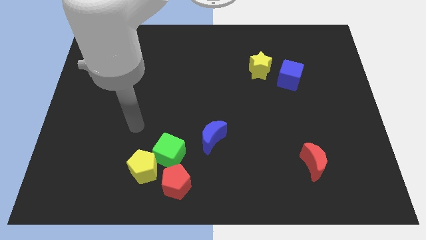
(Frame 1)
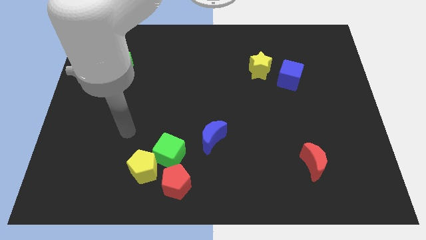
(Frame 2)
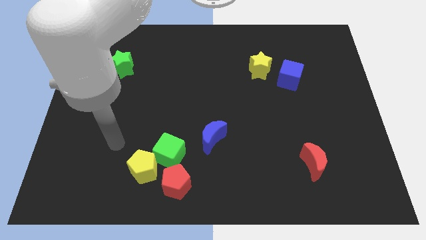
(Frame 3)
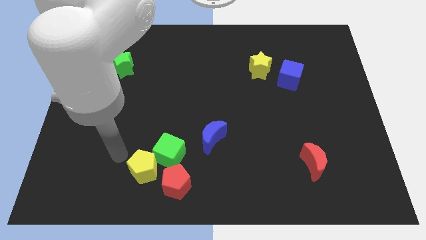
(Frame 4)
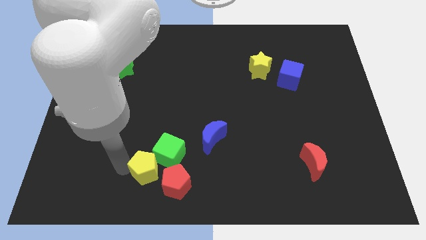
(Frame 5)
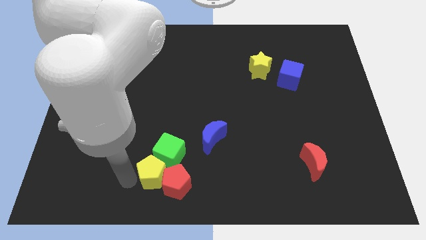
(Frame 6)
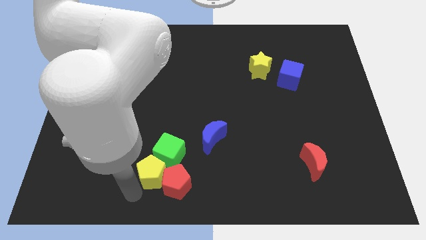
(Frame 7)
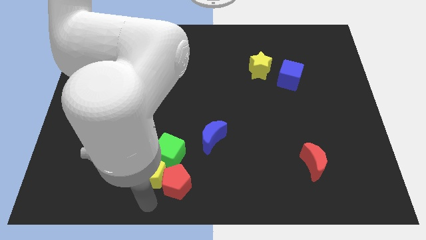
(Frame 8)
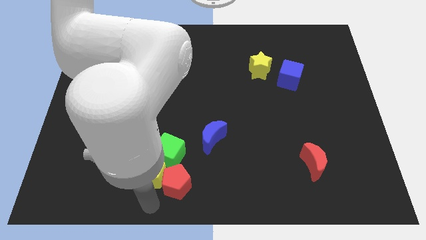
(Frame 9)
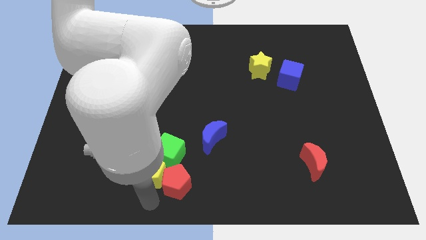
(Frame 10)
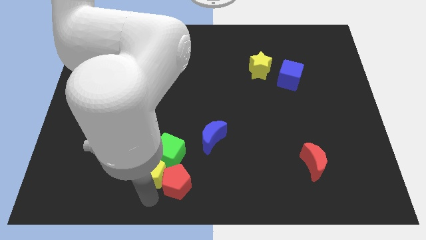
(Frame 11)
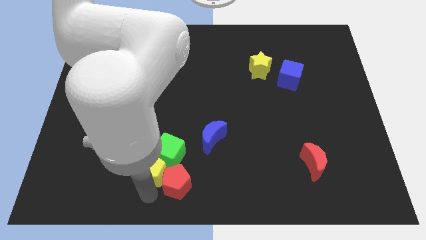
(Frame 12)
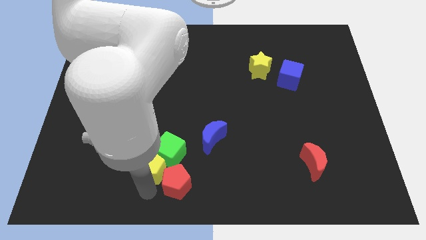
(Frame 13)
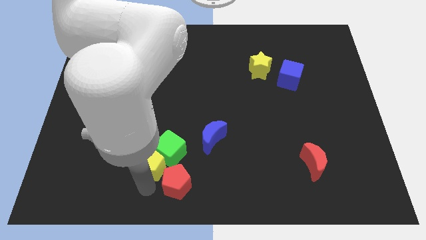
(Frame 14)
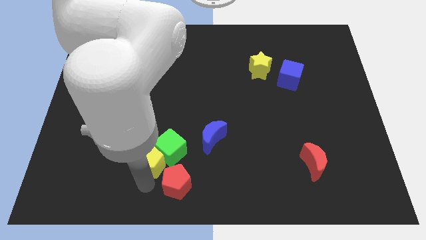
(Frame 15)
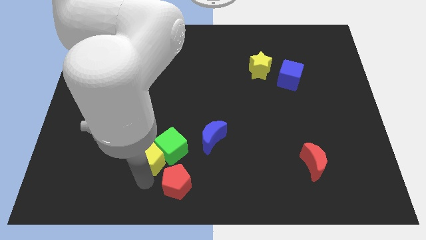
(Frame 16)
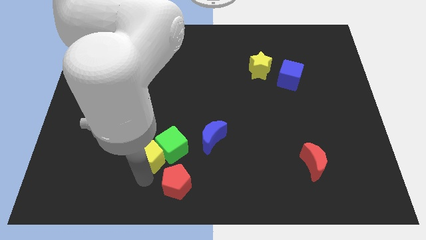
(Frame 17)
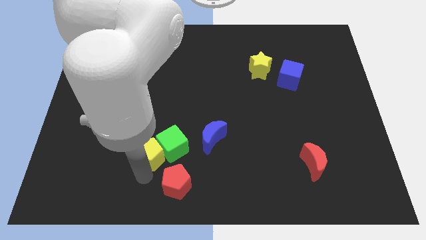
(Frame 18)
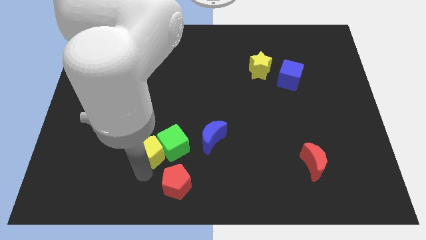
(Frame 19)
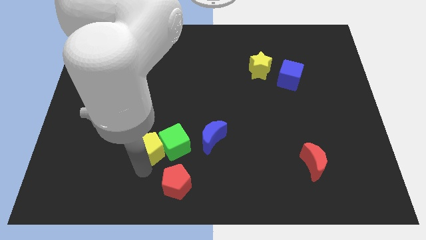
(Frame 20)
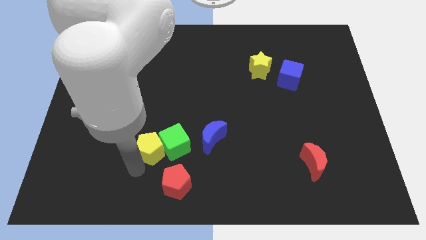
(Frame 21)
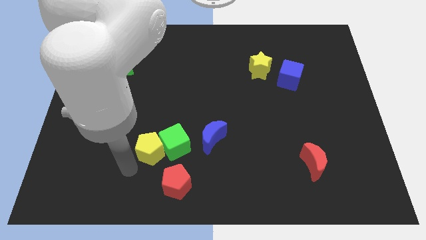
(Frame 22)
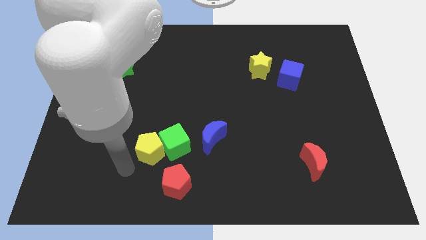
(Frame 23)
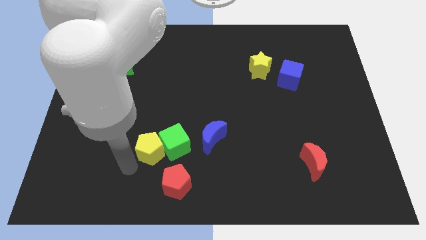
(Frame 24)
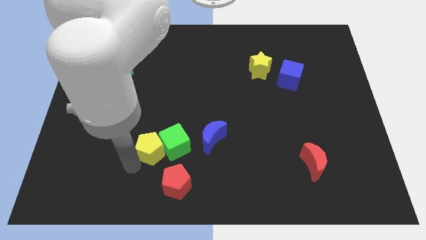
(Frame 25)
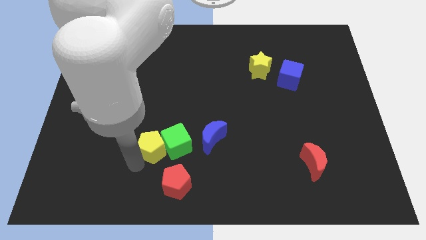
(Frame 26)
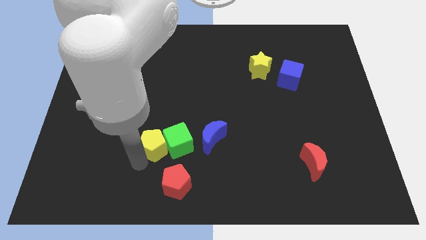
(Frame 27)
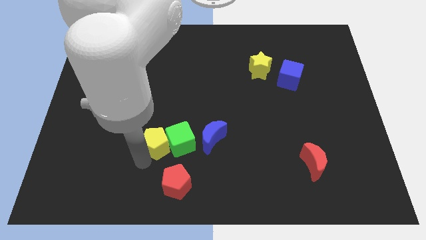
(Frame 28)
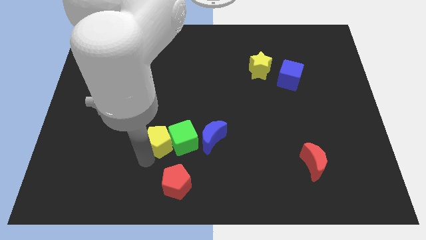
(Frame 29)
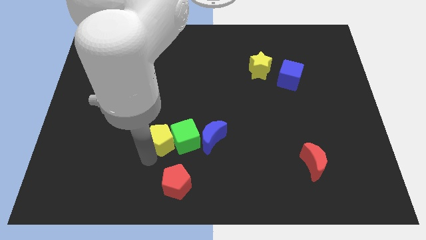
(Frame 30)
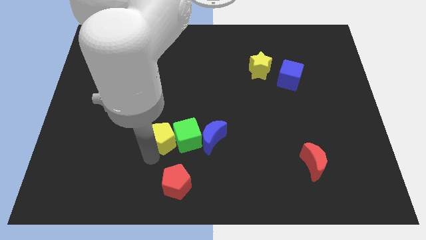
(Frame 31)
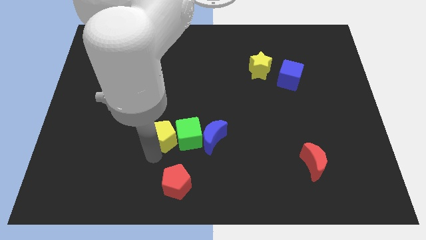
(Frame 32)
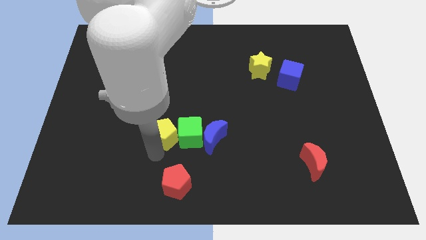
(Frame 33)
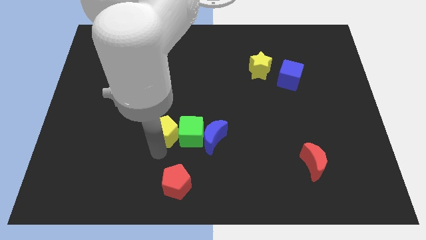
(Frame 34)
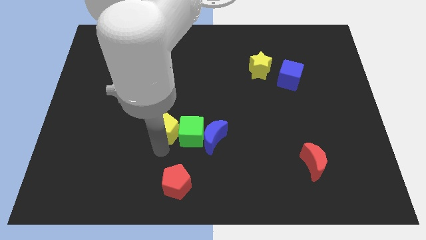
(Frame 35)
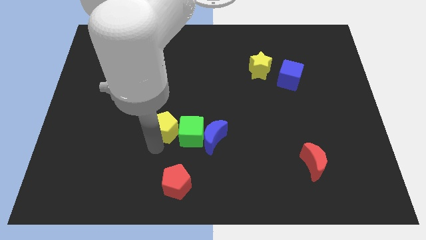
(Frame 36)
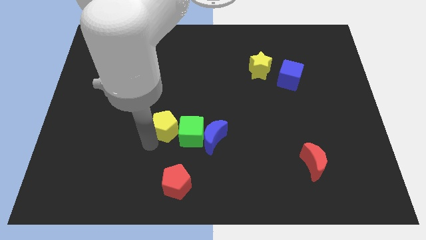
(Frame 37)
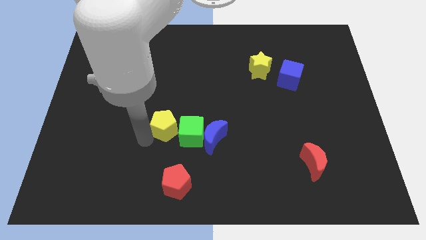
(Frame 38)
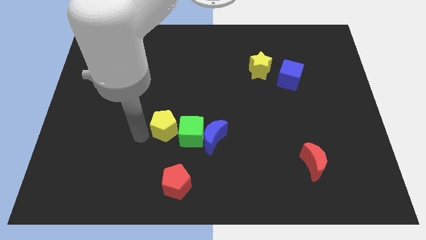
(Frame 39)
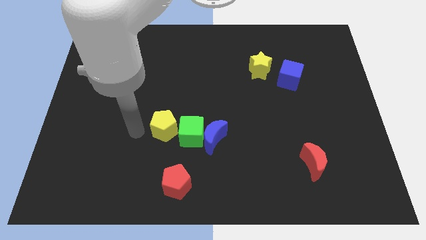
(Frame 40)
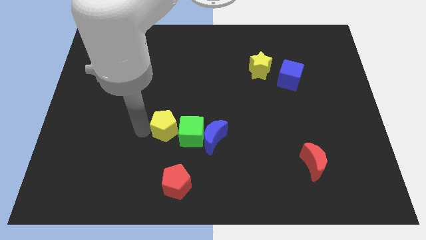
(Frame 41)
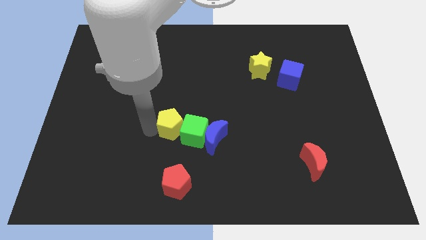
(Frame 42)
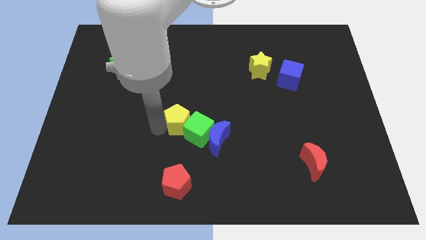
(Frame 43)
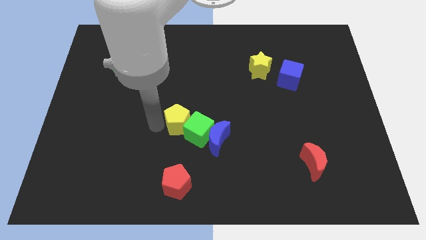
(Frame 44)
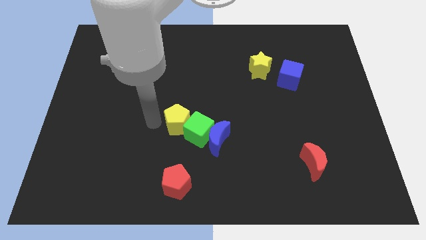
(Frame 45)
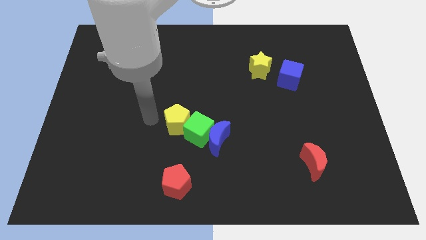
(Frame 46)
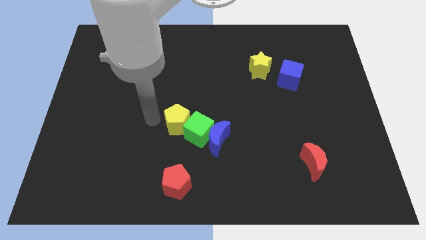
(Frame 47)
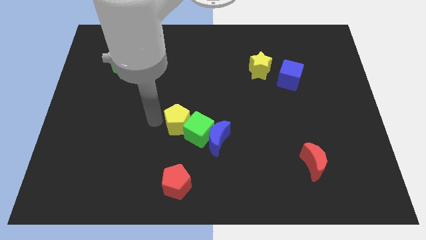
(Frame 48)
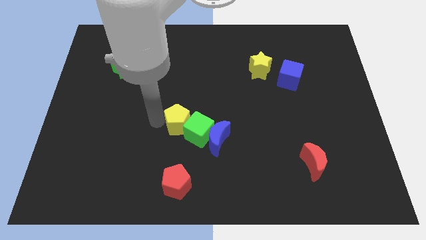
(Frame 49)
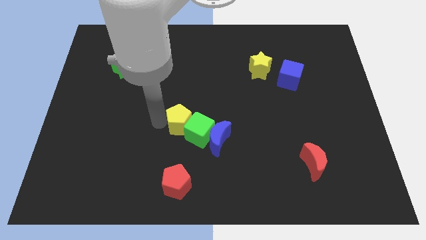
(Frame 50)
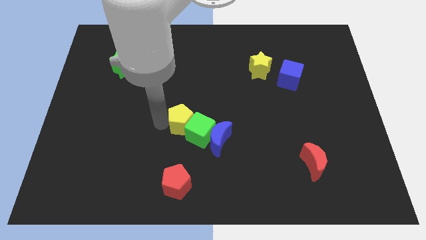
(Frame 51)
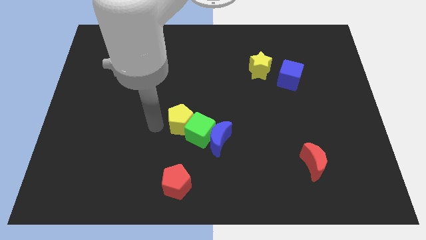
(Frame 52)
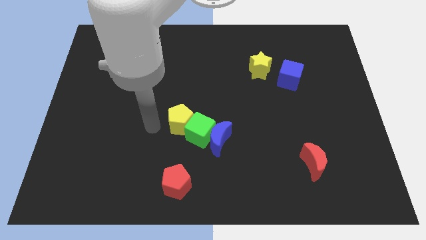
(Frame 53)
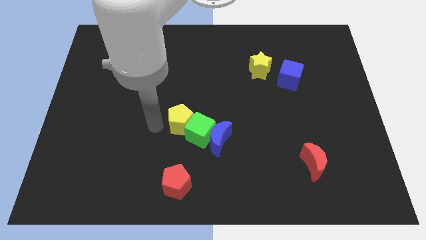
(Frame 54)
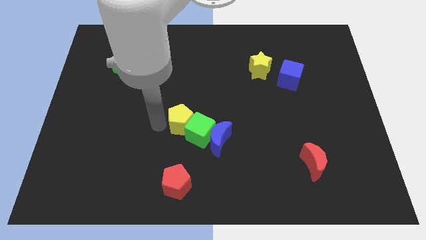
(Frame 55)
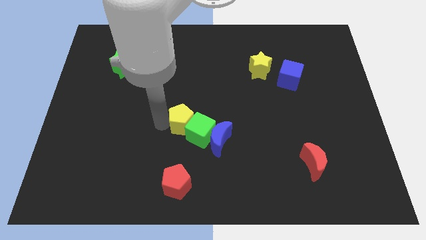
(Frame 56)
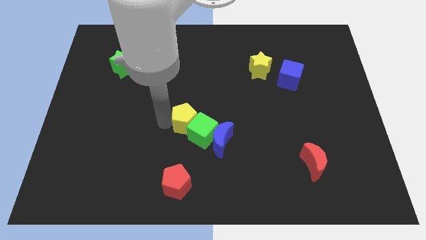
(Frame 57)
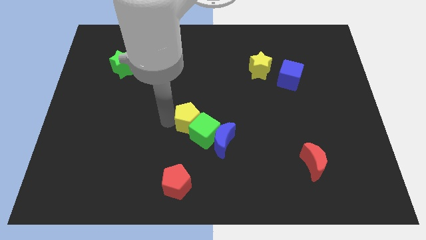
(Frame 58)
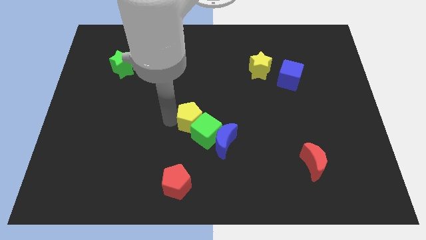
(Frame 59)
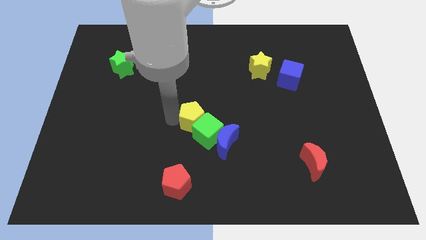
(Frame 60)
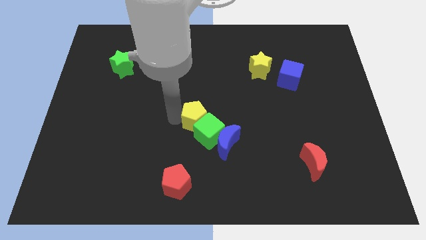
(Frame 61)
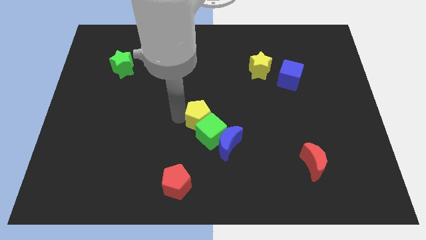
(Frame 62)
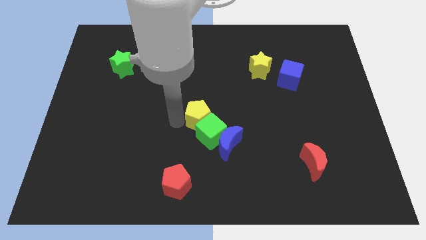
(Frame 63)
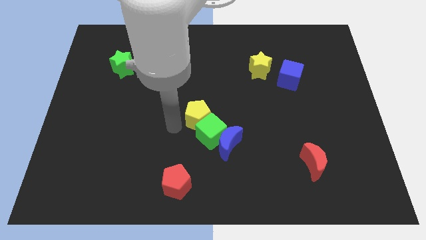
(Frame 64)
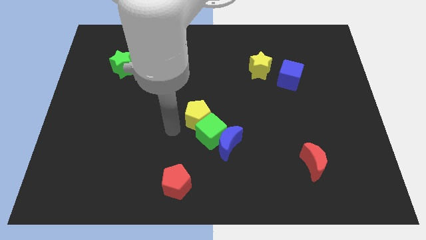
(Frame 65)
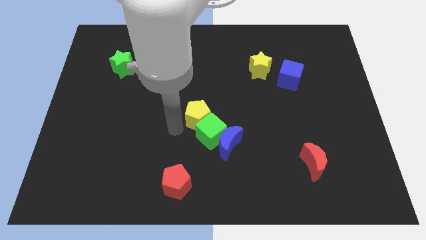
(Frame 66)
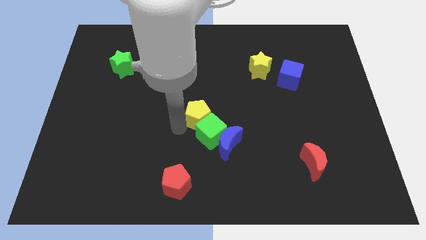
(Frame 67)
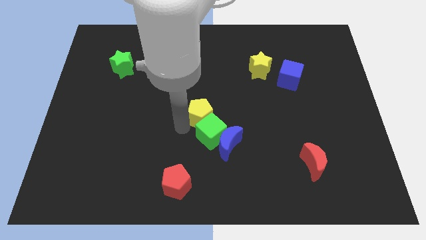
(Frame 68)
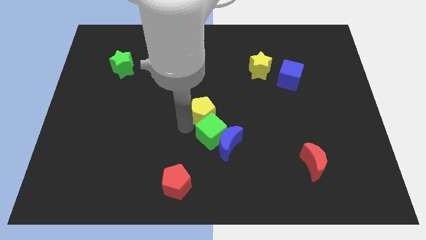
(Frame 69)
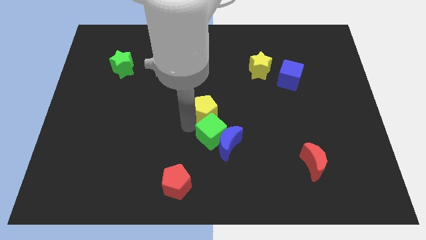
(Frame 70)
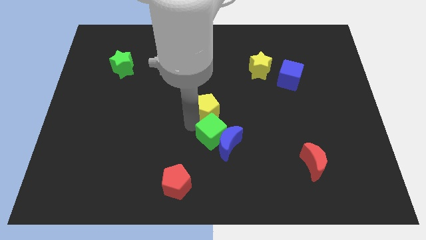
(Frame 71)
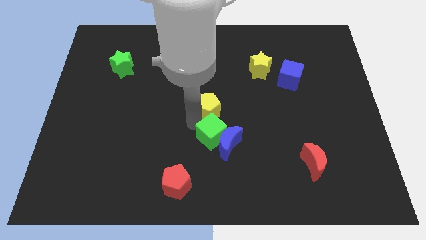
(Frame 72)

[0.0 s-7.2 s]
push the yellow pentagon diagonally up and right

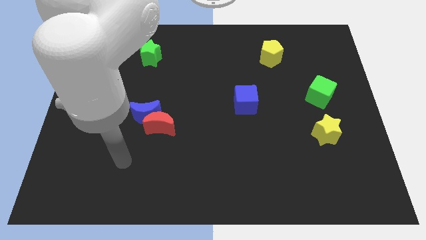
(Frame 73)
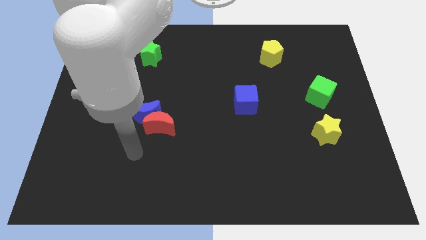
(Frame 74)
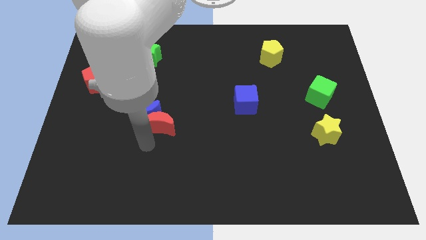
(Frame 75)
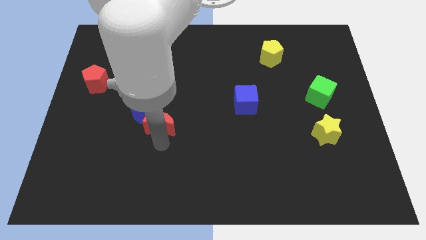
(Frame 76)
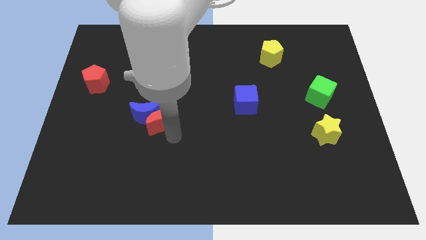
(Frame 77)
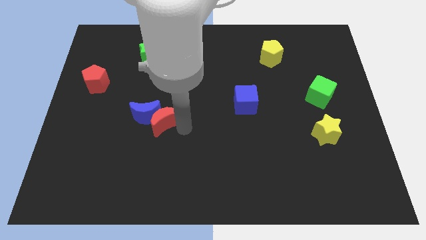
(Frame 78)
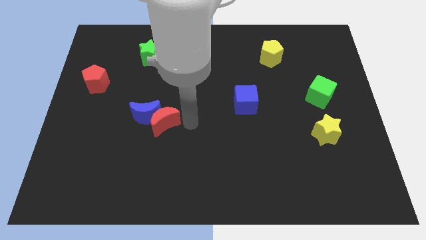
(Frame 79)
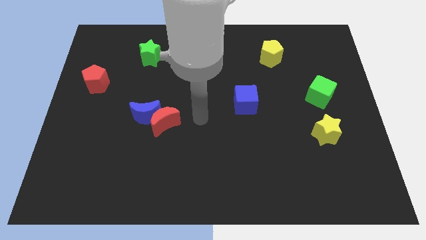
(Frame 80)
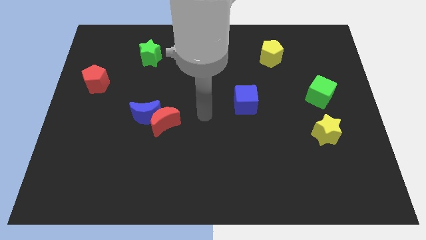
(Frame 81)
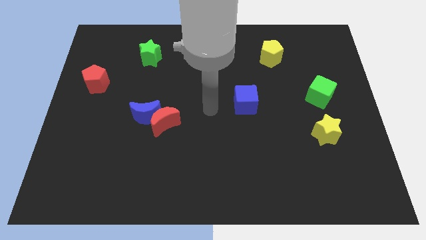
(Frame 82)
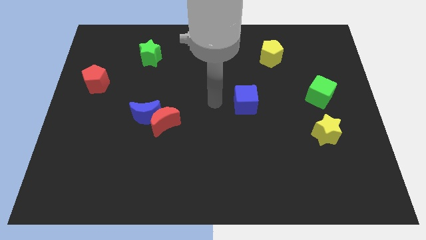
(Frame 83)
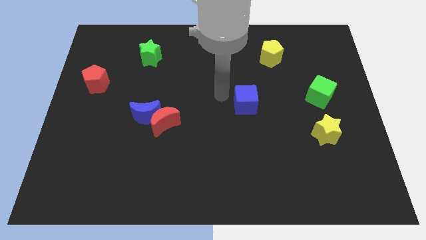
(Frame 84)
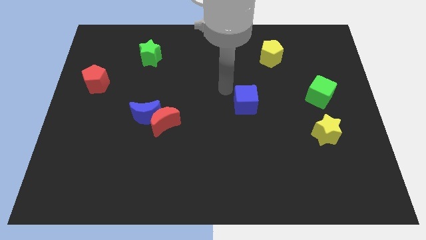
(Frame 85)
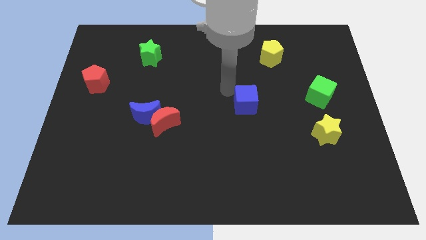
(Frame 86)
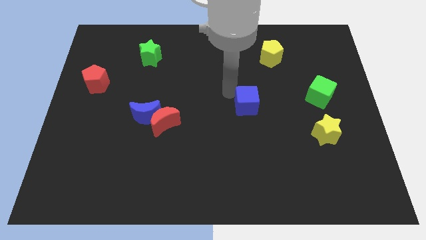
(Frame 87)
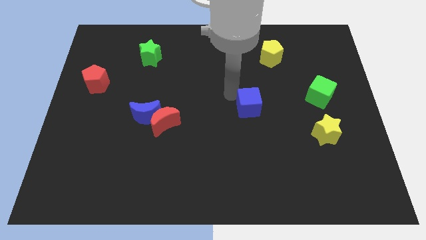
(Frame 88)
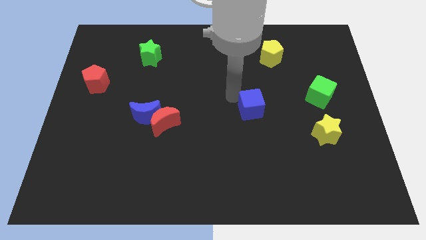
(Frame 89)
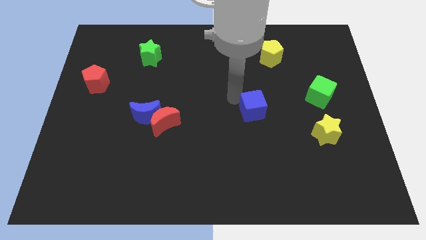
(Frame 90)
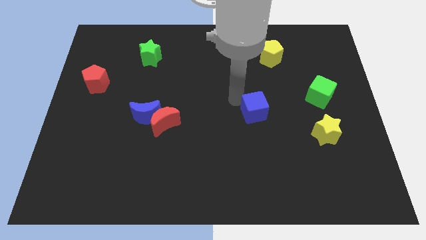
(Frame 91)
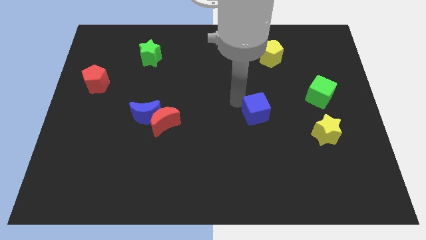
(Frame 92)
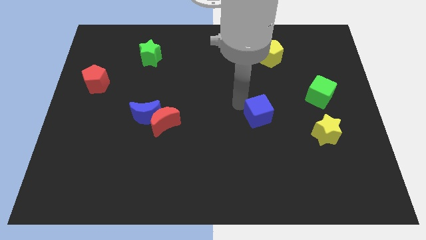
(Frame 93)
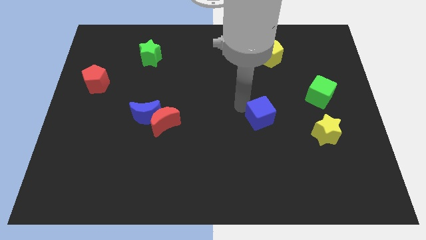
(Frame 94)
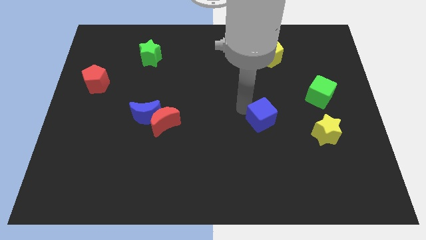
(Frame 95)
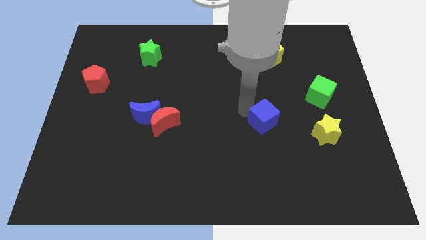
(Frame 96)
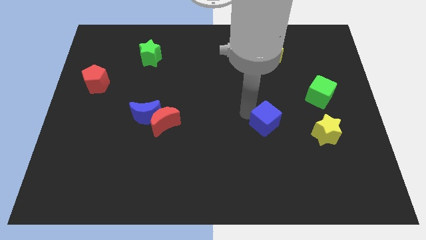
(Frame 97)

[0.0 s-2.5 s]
push the blue cube a bit diagonally downwards and right
